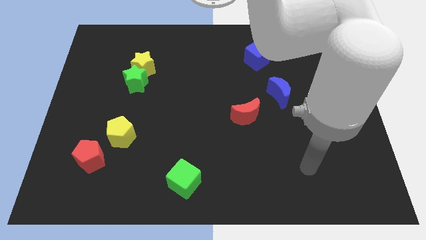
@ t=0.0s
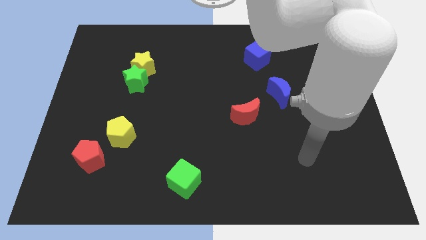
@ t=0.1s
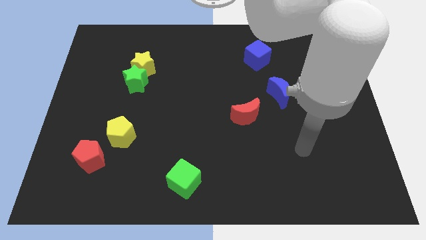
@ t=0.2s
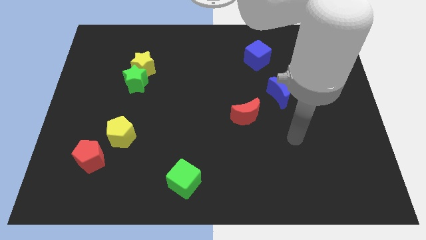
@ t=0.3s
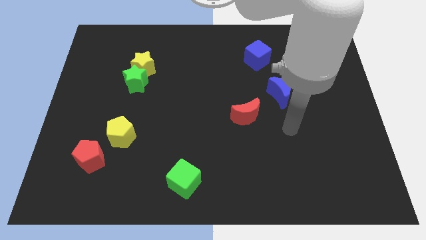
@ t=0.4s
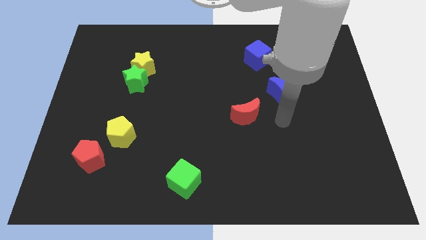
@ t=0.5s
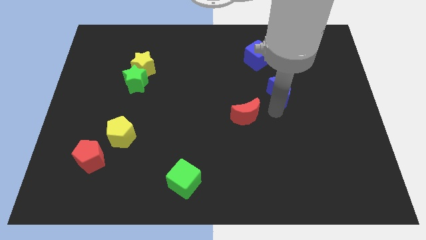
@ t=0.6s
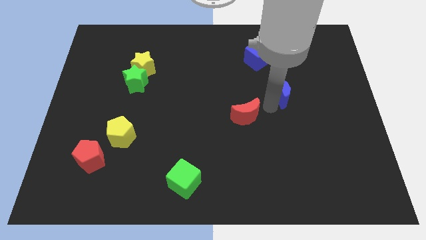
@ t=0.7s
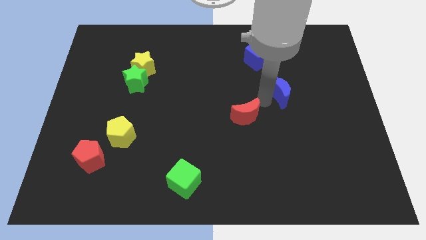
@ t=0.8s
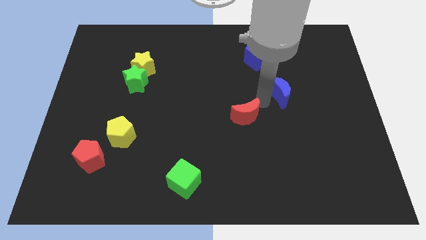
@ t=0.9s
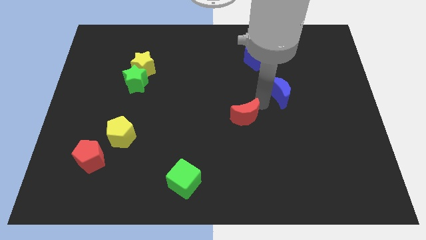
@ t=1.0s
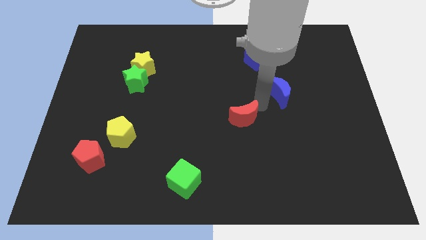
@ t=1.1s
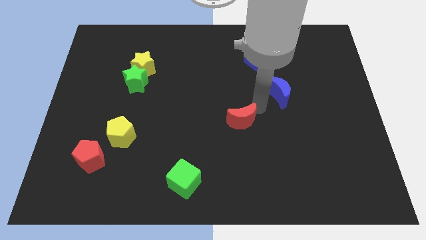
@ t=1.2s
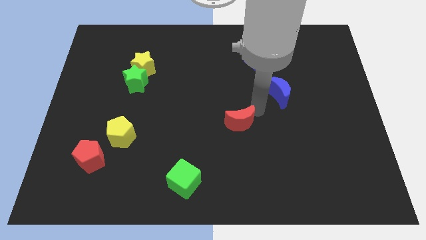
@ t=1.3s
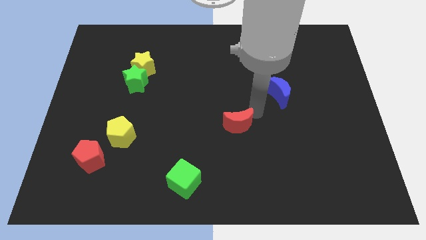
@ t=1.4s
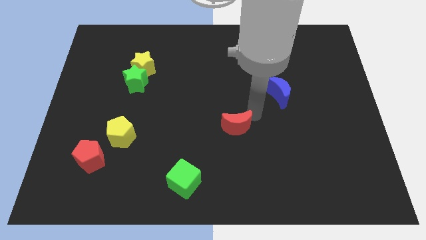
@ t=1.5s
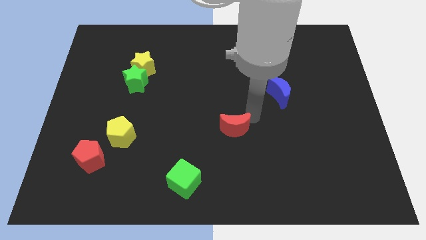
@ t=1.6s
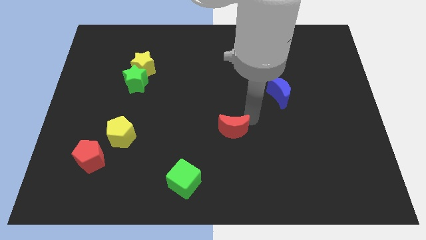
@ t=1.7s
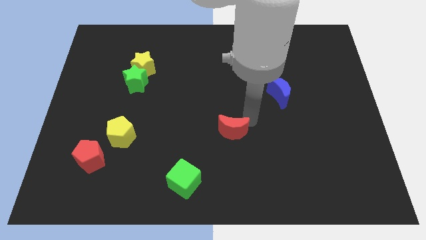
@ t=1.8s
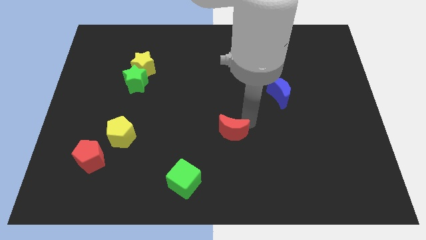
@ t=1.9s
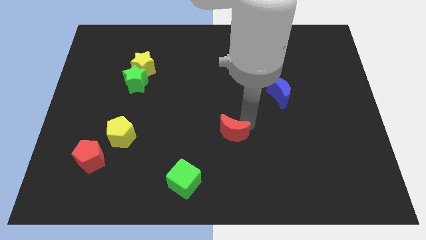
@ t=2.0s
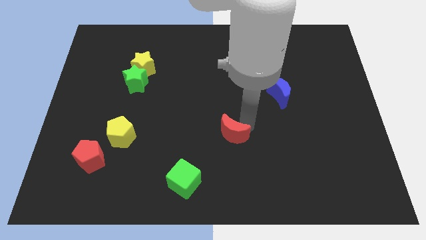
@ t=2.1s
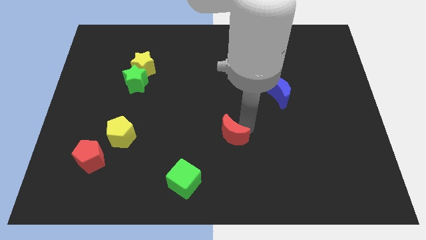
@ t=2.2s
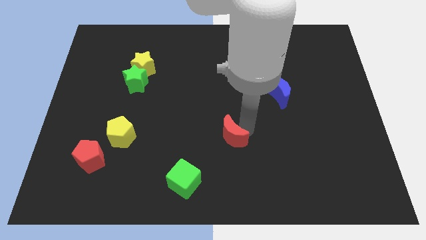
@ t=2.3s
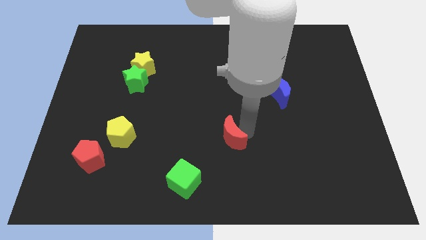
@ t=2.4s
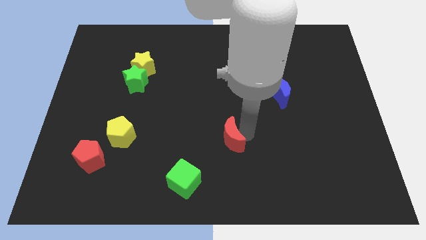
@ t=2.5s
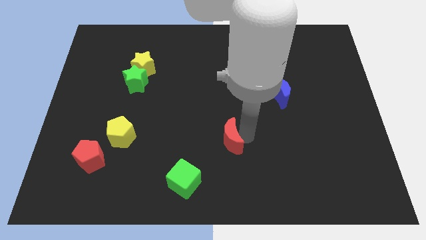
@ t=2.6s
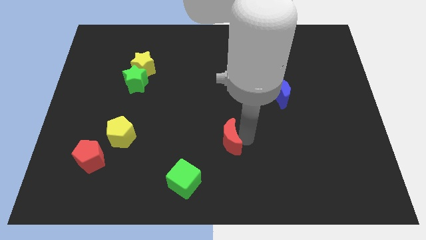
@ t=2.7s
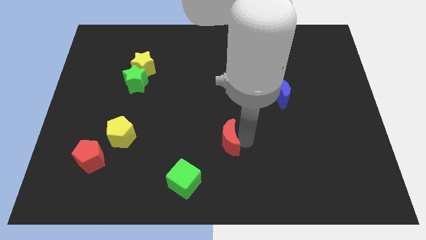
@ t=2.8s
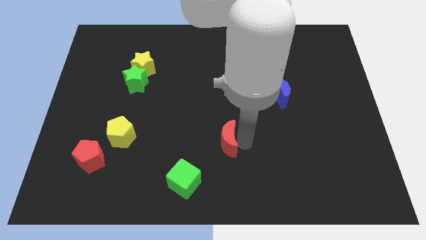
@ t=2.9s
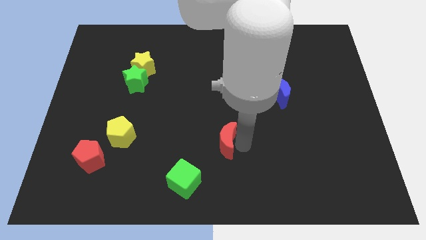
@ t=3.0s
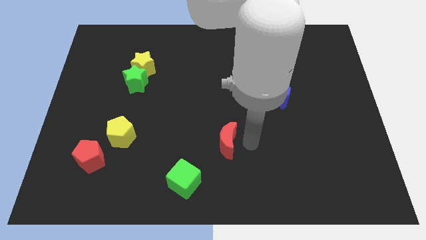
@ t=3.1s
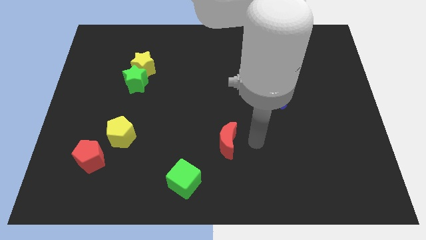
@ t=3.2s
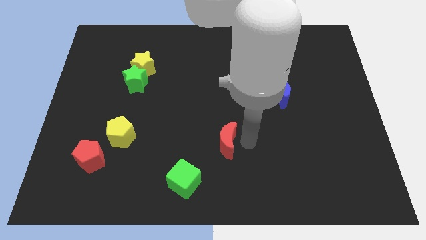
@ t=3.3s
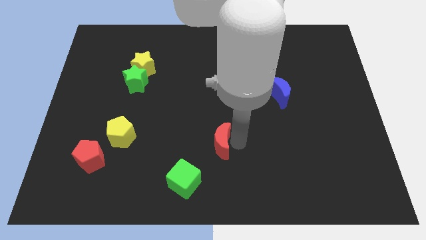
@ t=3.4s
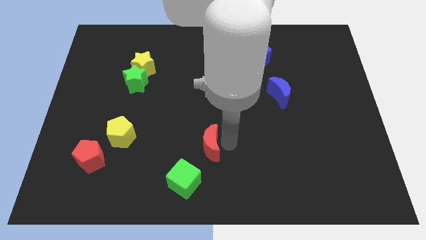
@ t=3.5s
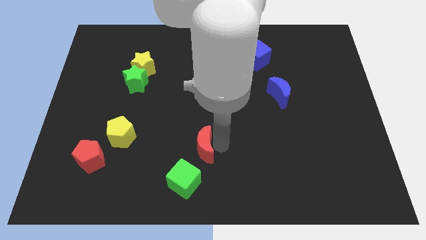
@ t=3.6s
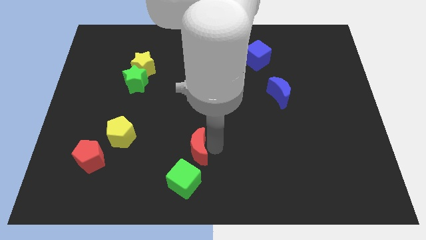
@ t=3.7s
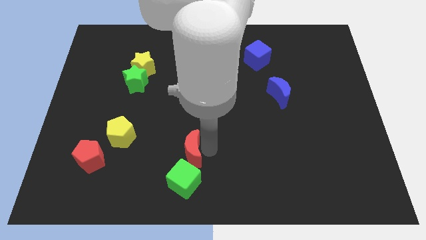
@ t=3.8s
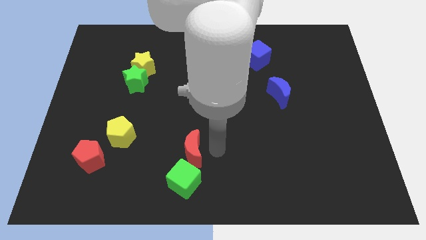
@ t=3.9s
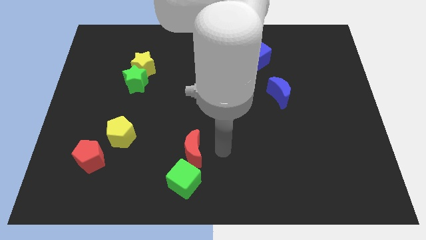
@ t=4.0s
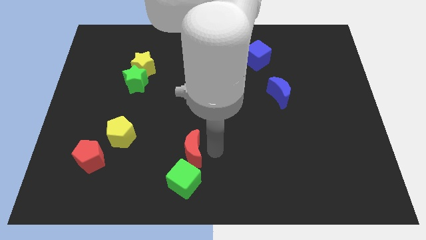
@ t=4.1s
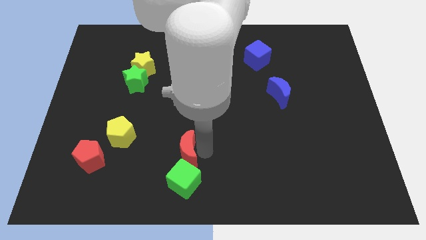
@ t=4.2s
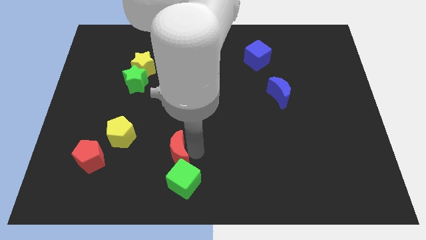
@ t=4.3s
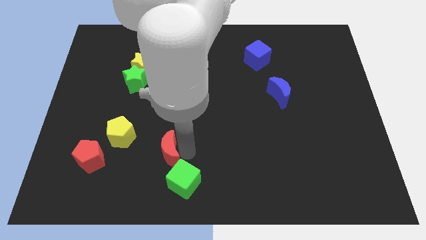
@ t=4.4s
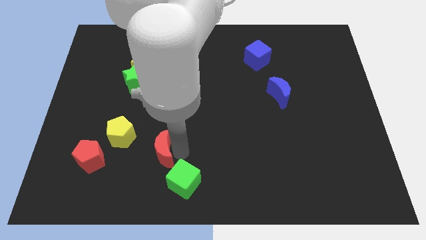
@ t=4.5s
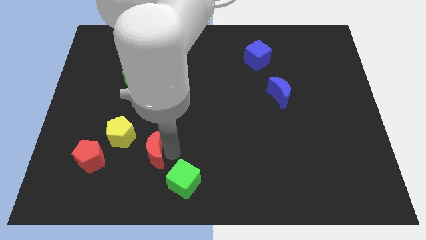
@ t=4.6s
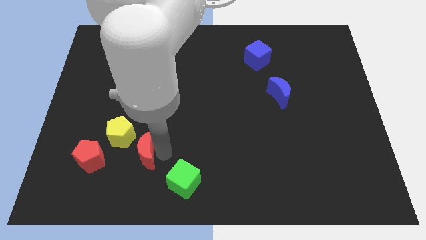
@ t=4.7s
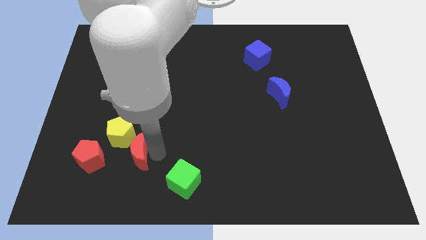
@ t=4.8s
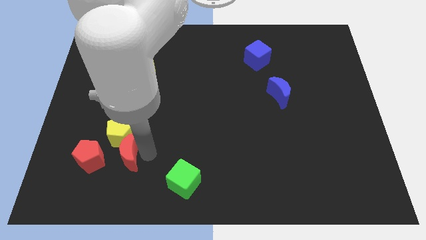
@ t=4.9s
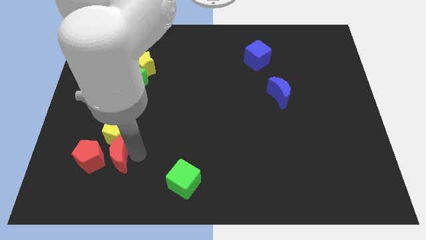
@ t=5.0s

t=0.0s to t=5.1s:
slide the red moon close to the red pentagon

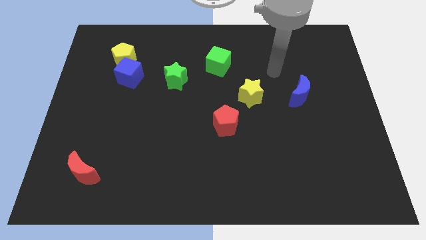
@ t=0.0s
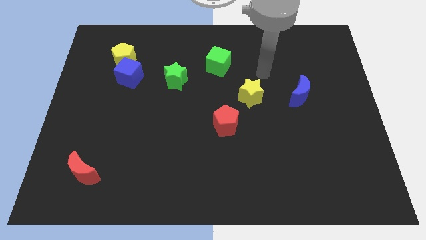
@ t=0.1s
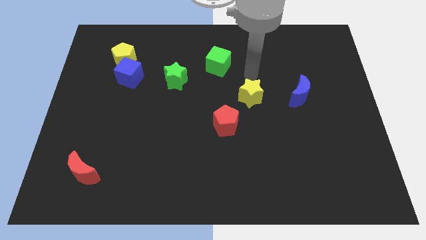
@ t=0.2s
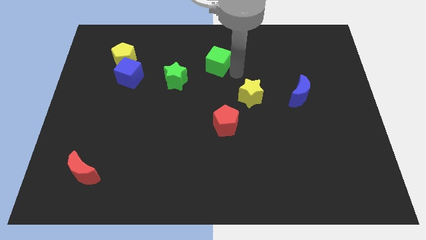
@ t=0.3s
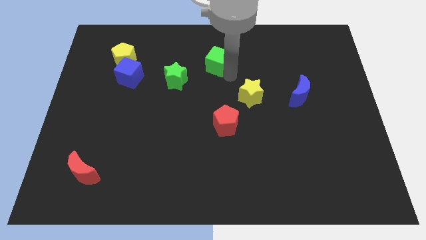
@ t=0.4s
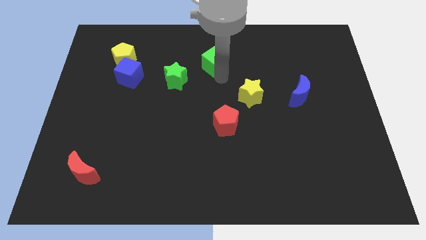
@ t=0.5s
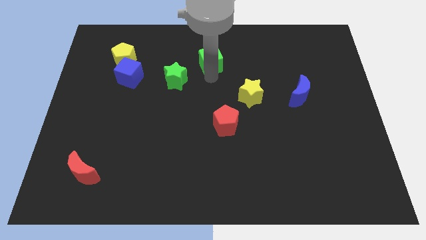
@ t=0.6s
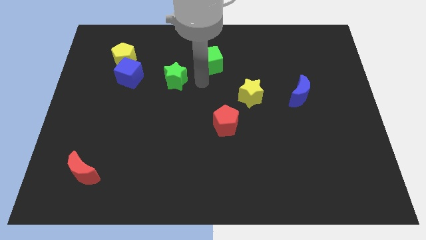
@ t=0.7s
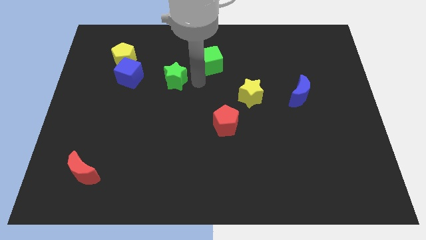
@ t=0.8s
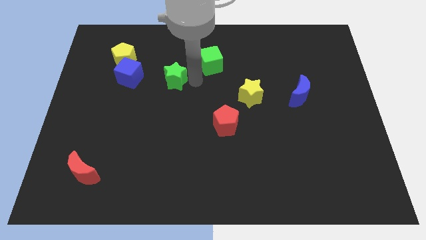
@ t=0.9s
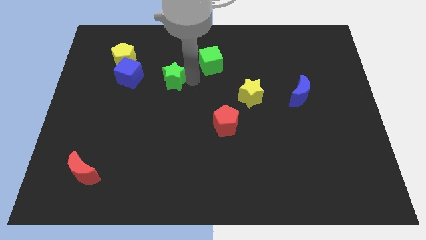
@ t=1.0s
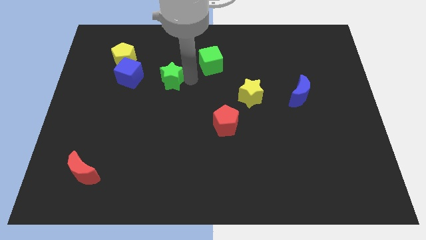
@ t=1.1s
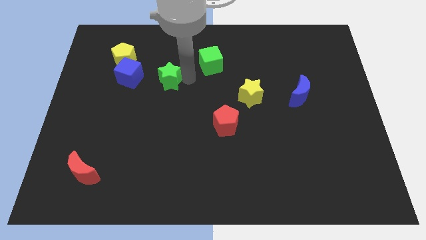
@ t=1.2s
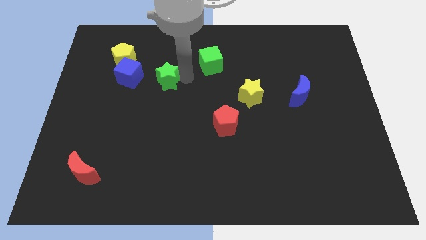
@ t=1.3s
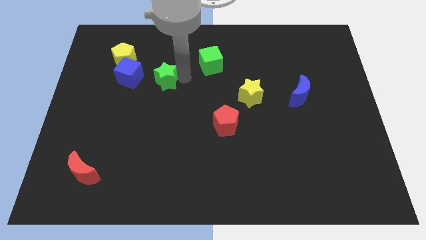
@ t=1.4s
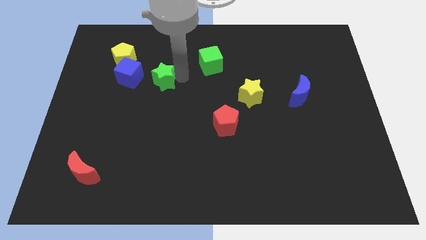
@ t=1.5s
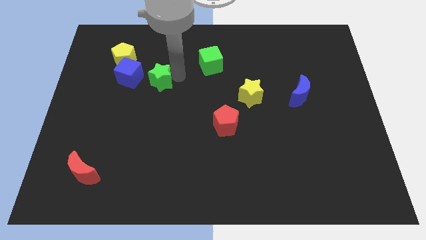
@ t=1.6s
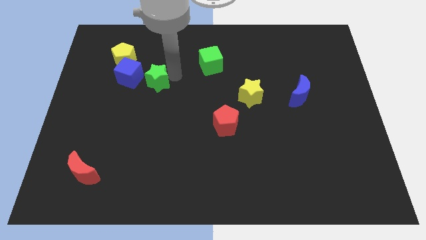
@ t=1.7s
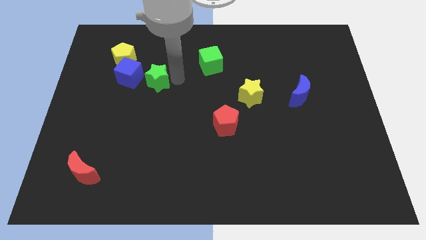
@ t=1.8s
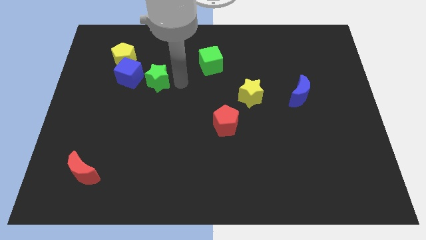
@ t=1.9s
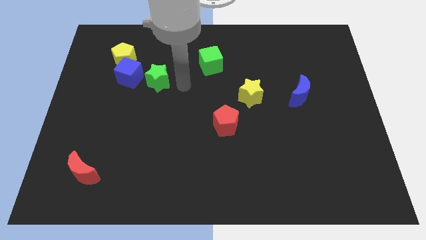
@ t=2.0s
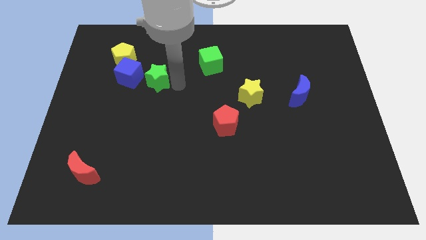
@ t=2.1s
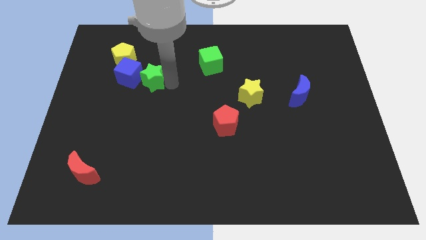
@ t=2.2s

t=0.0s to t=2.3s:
move the green star close to the blue cube
